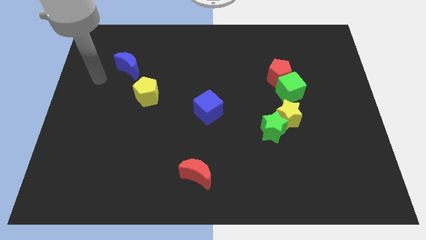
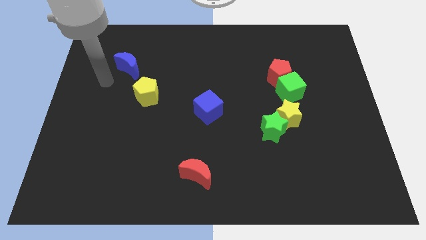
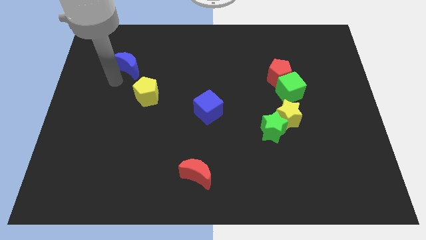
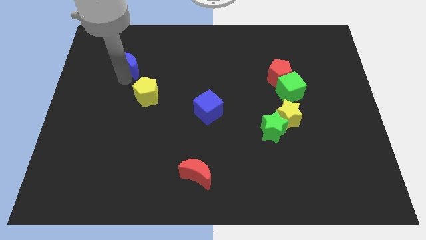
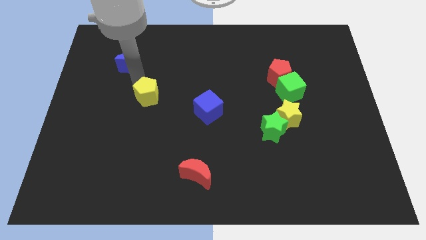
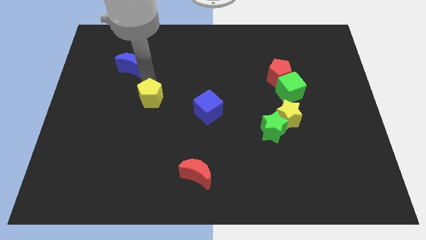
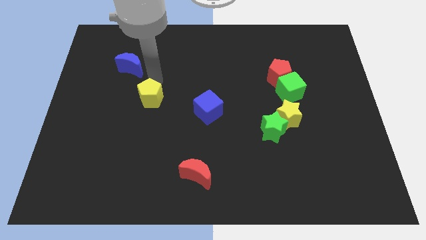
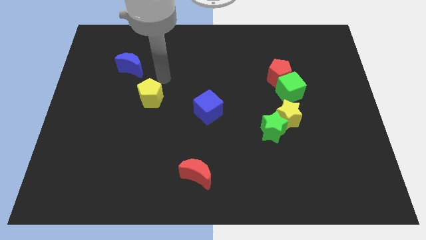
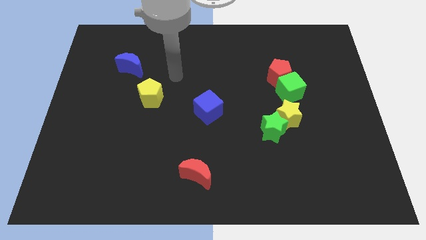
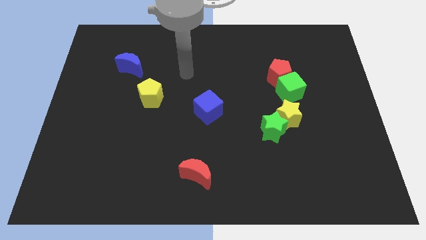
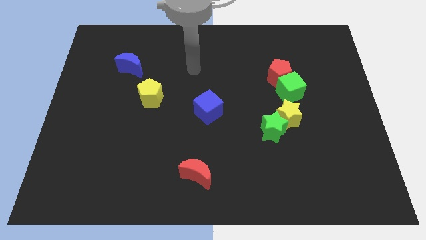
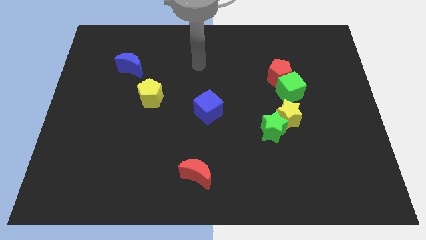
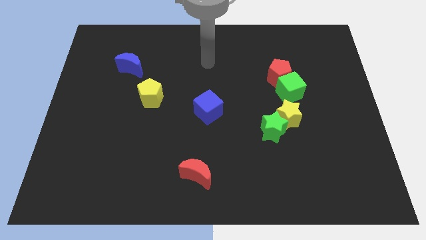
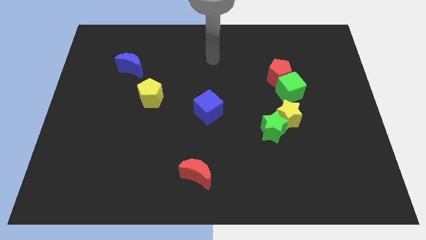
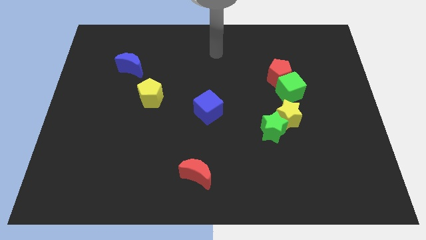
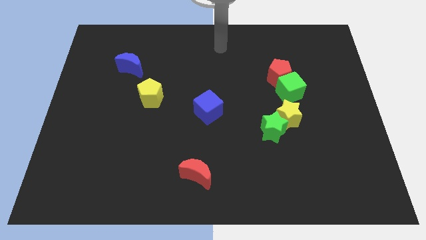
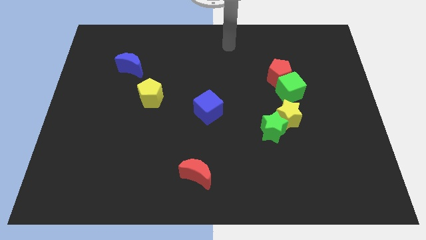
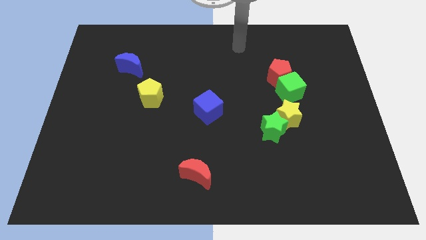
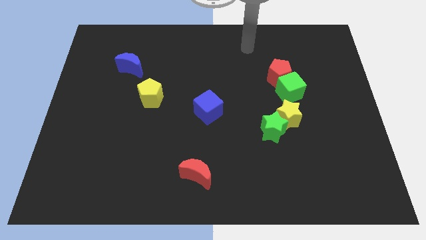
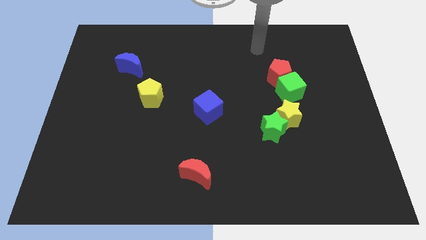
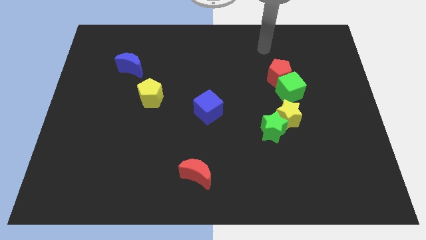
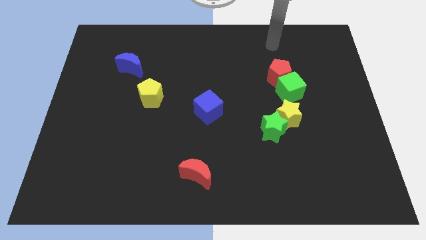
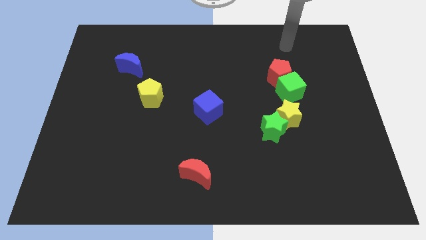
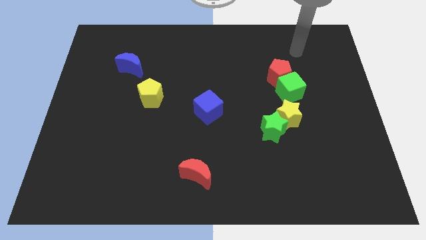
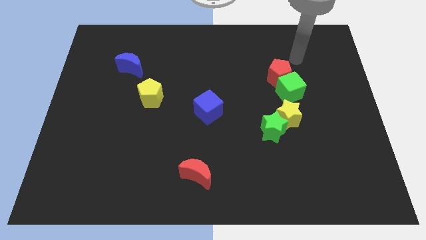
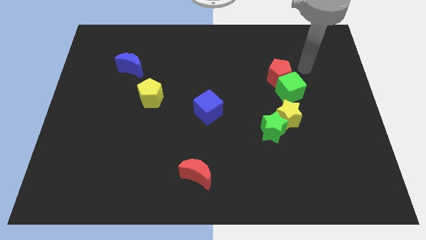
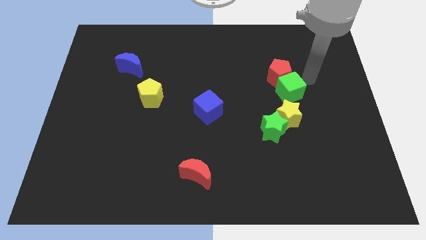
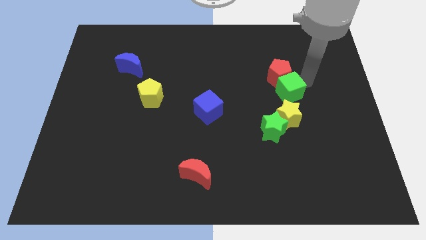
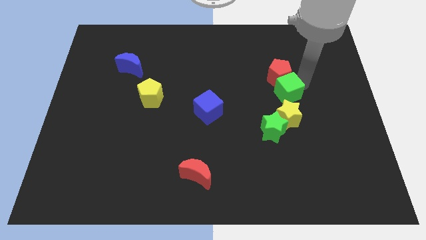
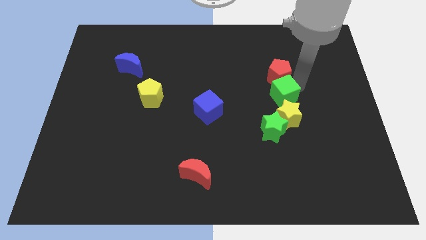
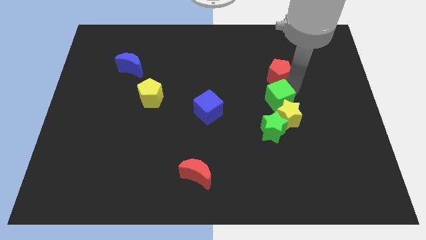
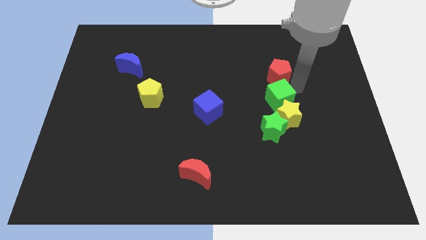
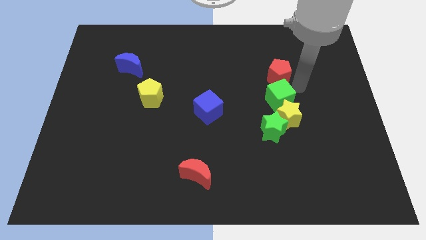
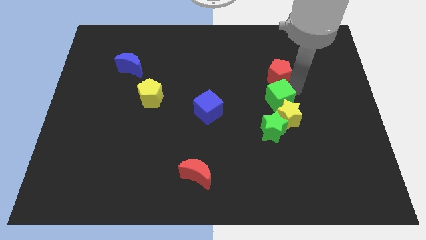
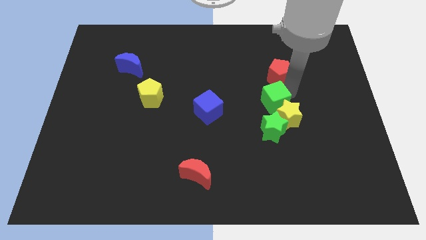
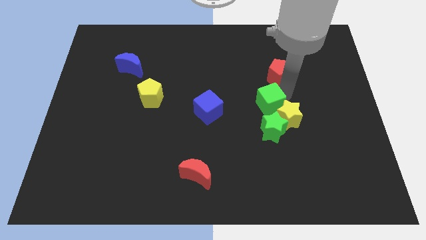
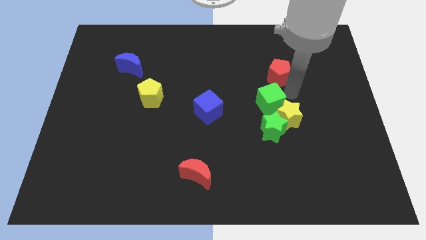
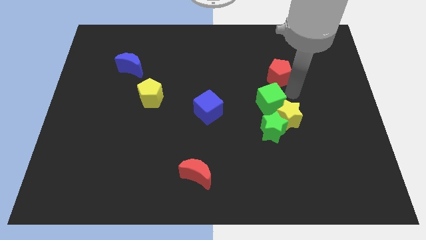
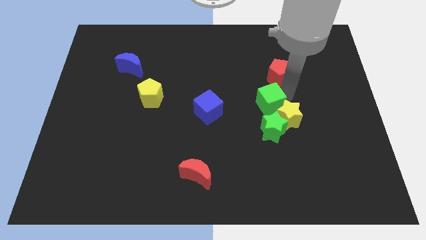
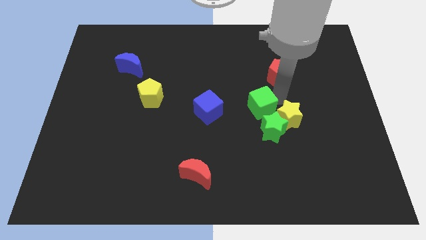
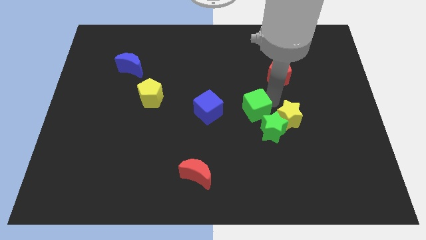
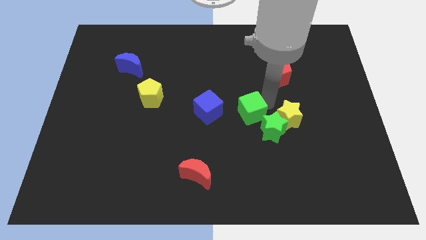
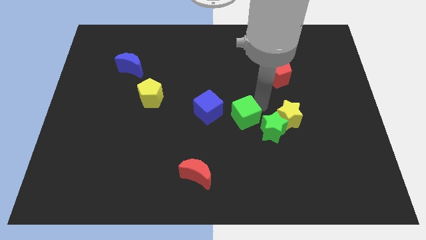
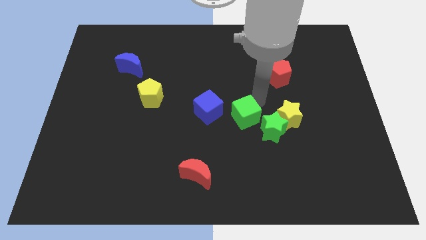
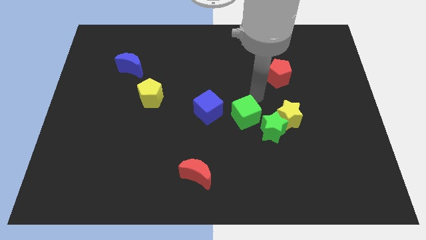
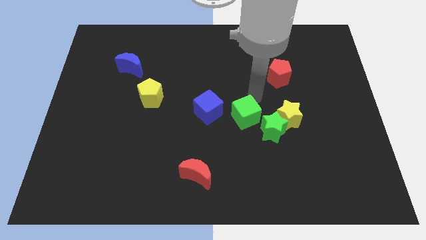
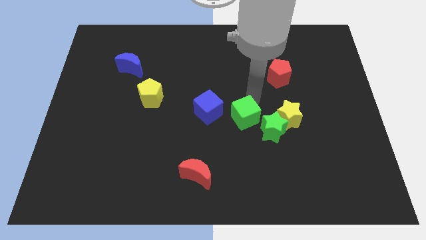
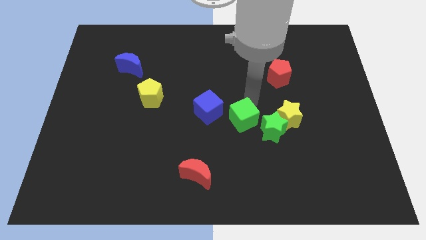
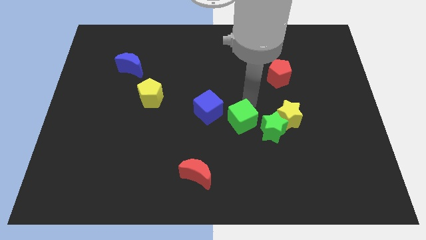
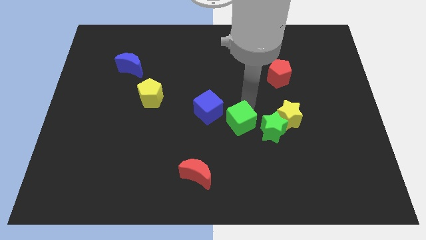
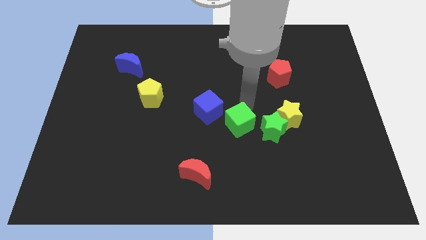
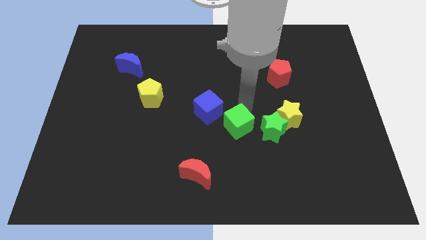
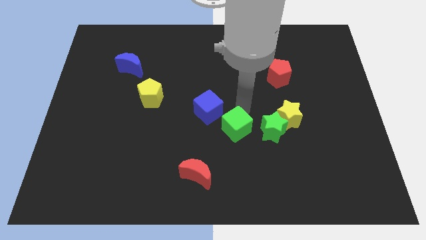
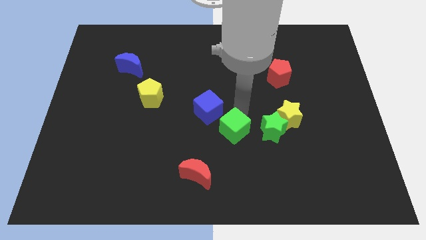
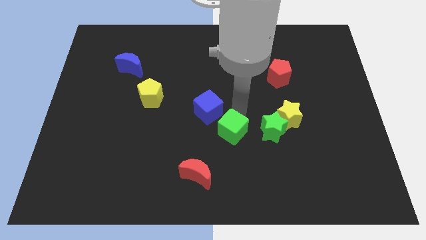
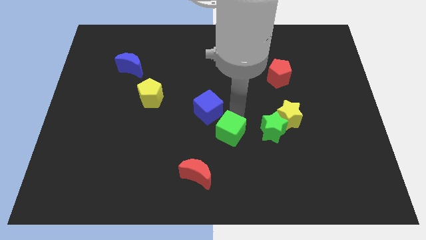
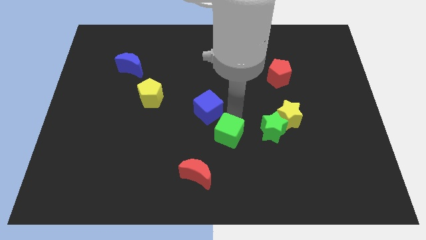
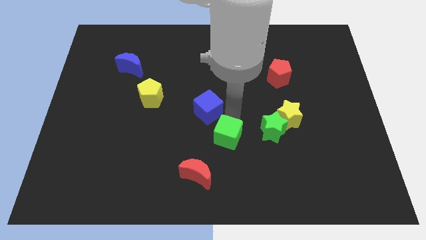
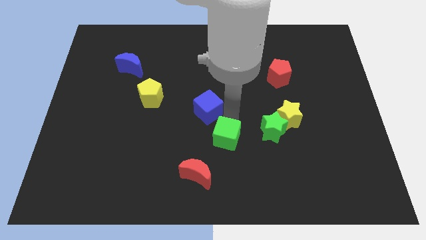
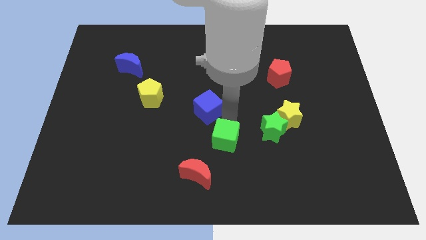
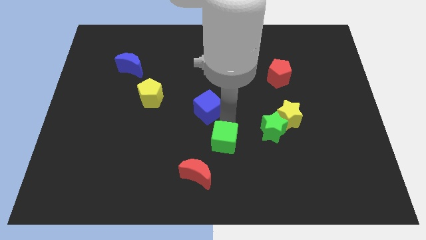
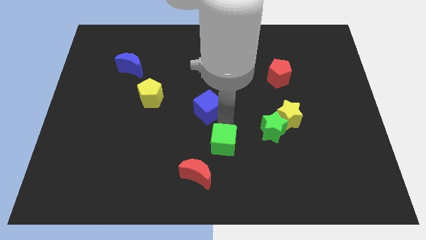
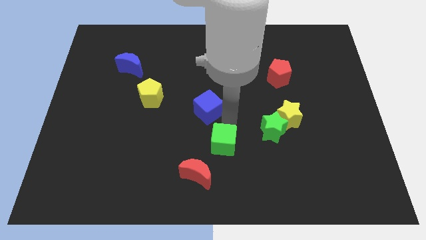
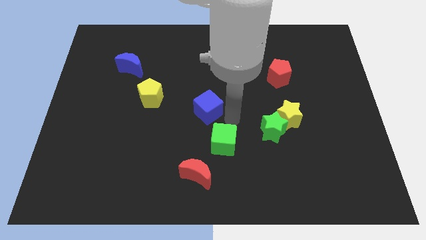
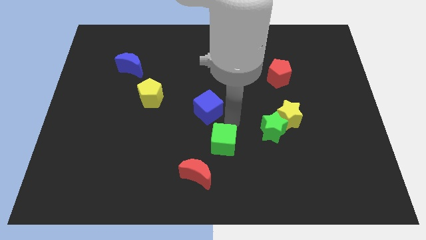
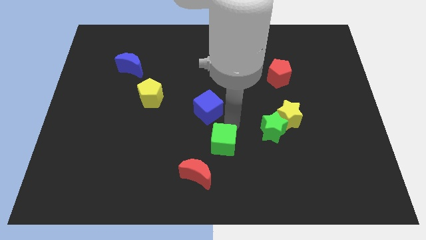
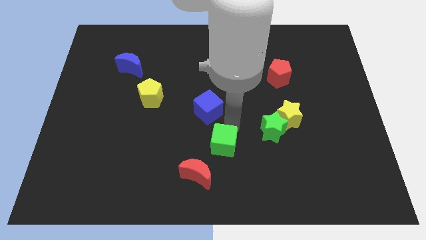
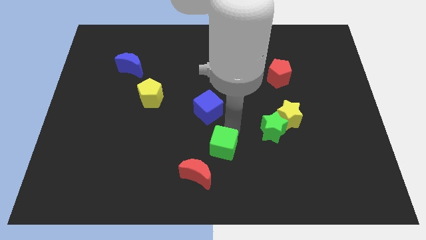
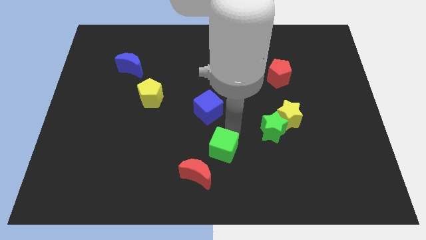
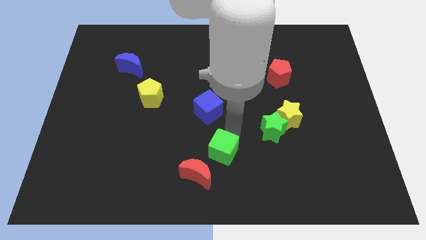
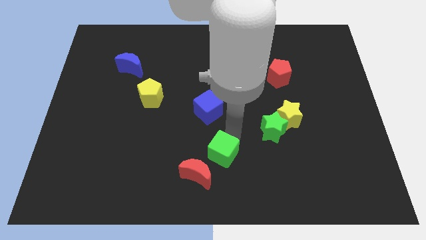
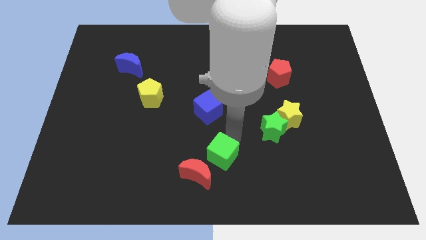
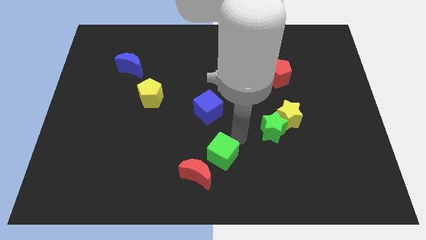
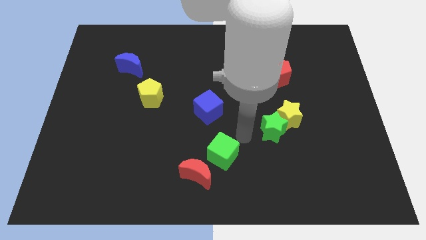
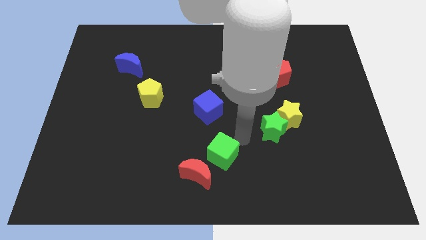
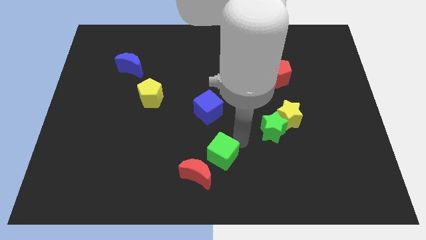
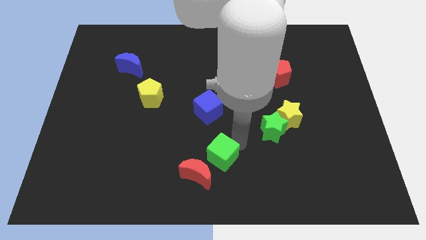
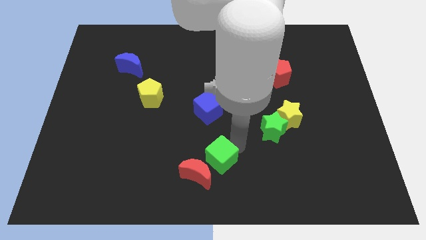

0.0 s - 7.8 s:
push the green cube next to the red moon
